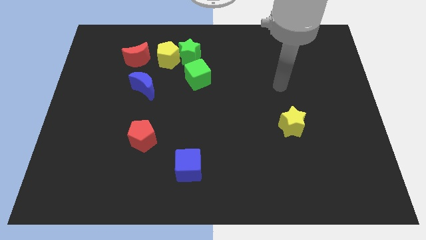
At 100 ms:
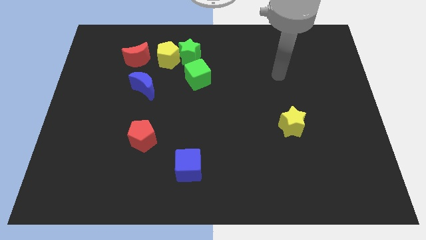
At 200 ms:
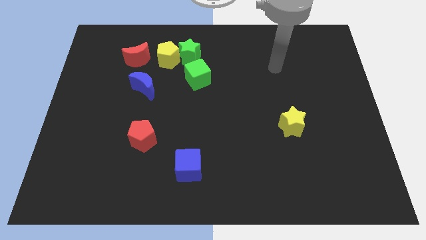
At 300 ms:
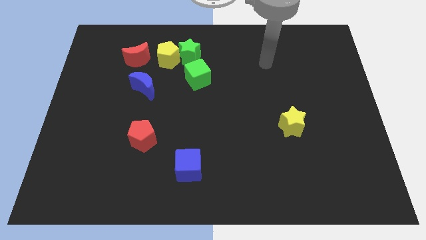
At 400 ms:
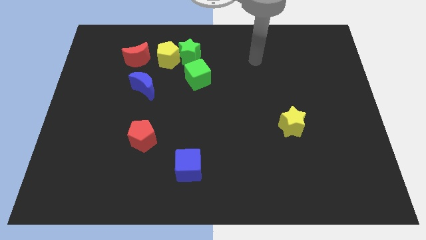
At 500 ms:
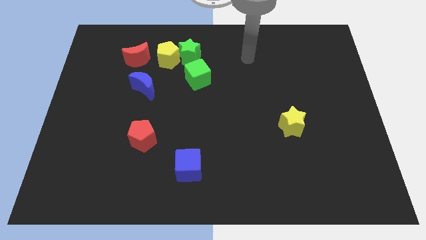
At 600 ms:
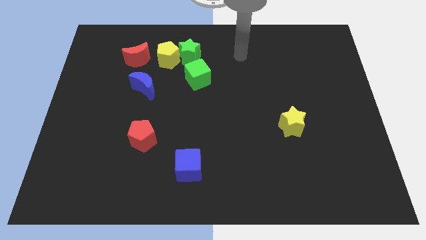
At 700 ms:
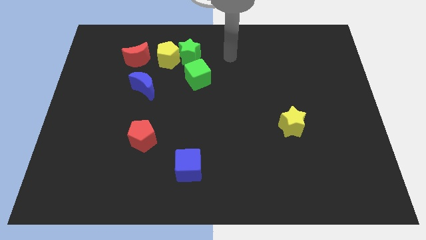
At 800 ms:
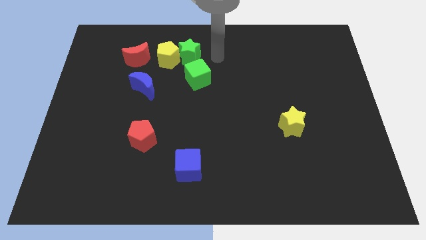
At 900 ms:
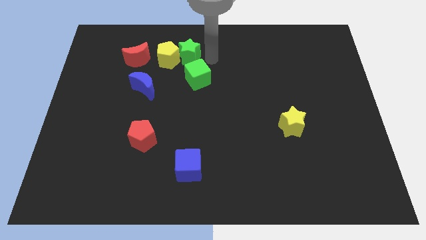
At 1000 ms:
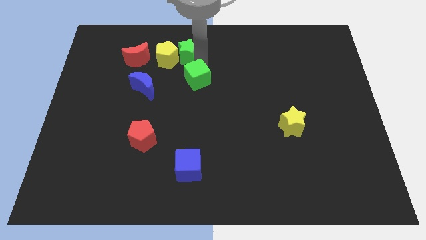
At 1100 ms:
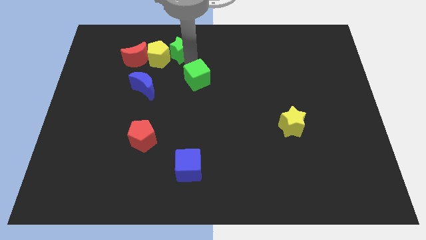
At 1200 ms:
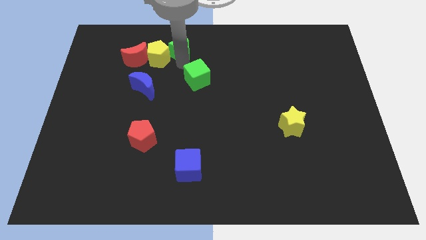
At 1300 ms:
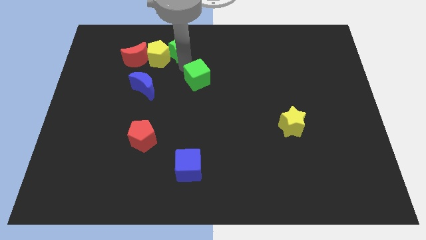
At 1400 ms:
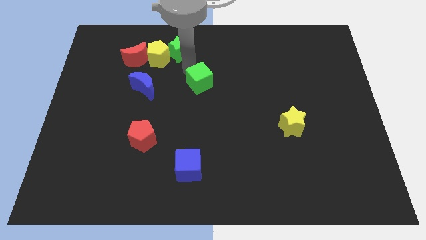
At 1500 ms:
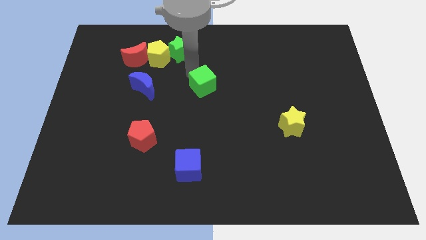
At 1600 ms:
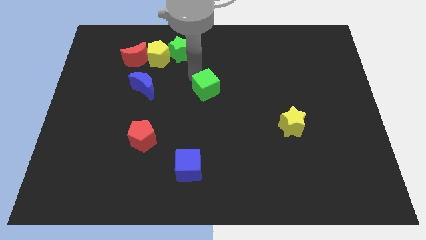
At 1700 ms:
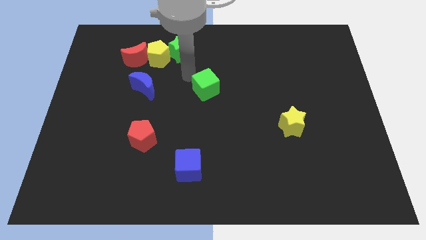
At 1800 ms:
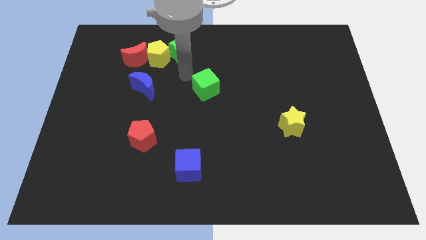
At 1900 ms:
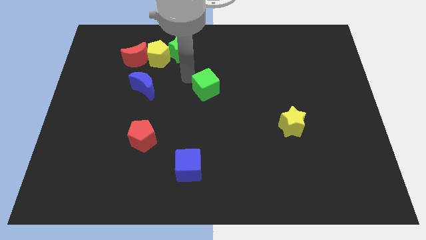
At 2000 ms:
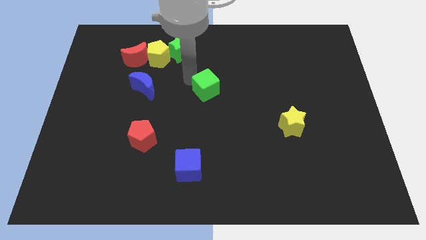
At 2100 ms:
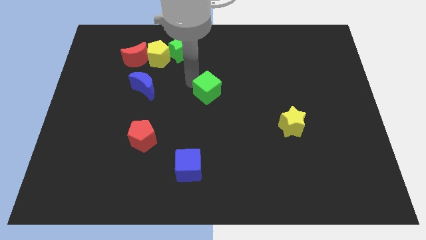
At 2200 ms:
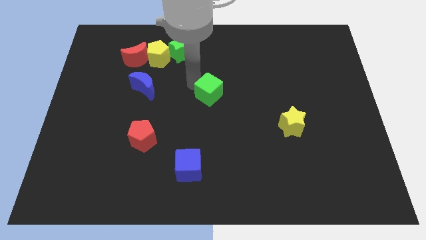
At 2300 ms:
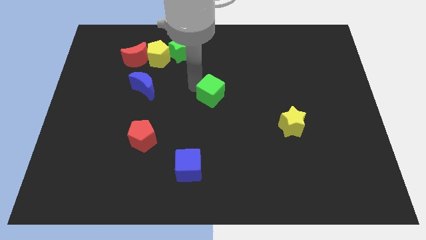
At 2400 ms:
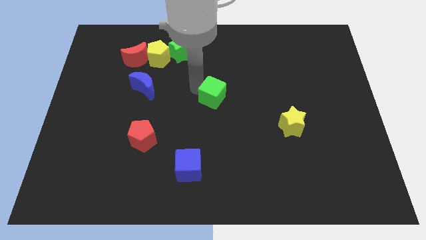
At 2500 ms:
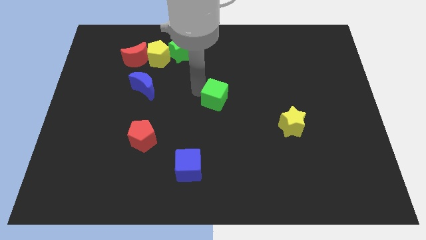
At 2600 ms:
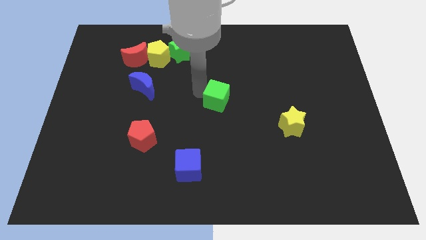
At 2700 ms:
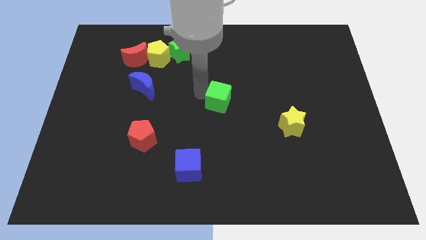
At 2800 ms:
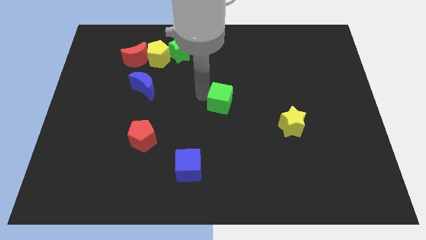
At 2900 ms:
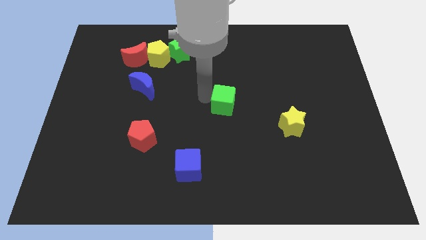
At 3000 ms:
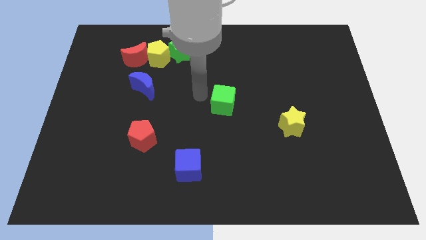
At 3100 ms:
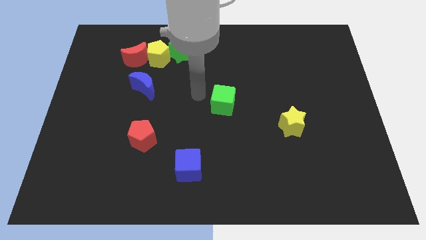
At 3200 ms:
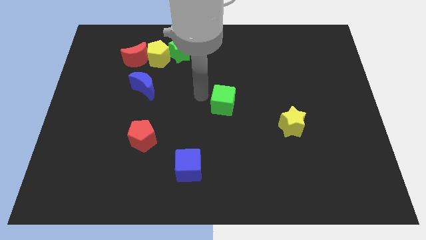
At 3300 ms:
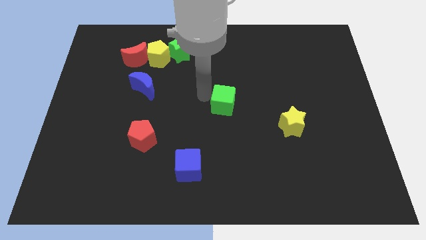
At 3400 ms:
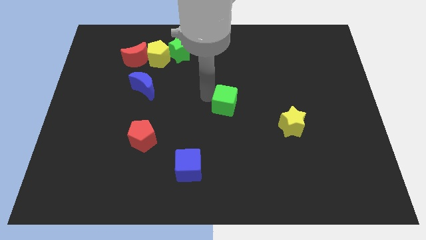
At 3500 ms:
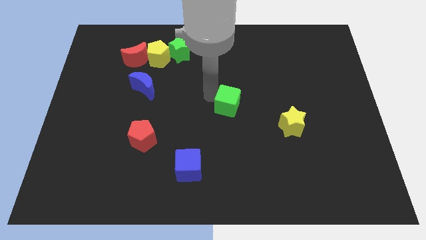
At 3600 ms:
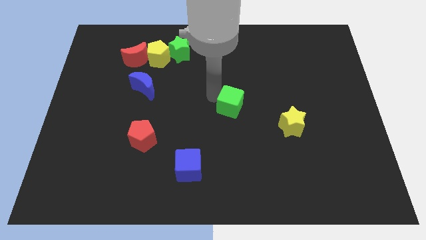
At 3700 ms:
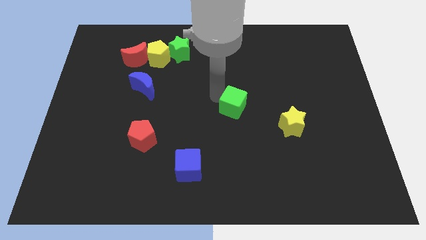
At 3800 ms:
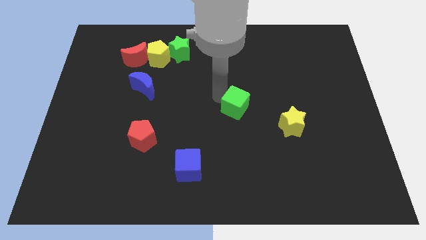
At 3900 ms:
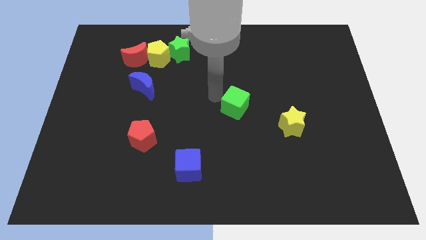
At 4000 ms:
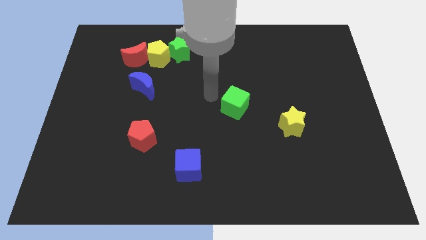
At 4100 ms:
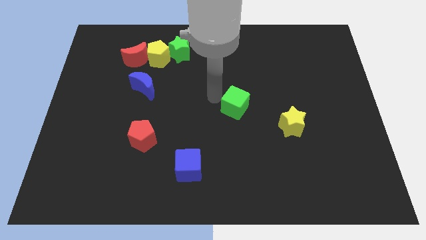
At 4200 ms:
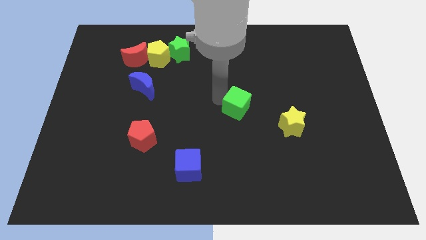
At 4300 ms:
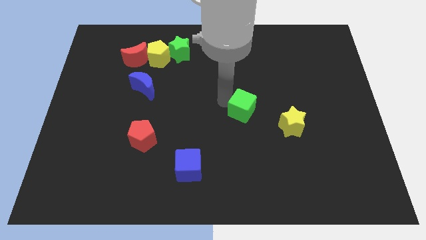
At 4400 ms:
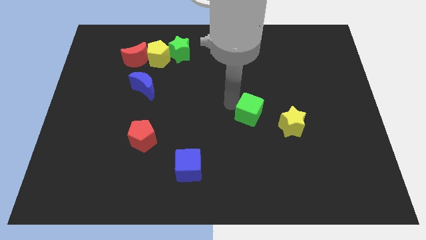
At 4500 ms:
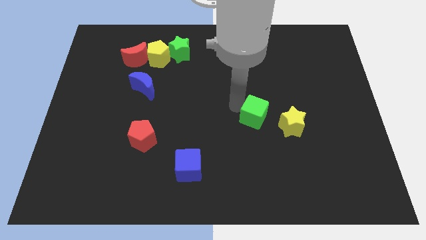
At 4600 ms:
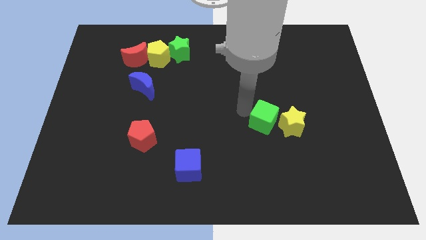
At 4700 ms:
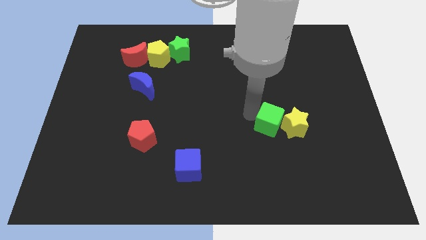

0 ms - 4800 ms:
push the green cube next to the yellow star

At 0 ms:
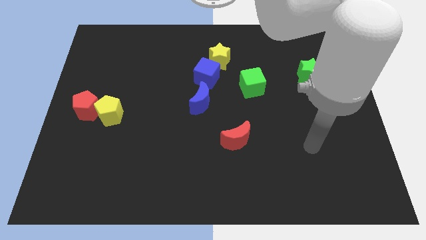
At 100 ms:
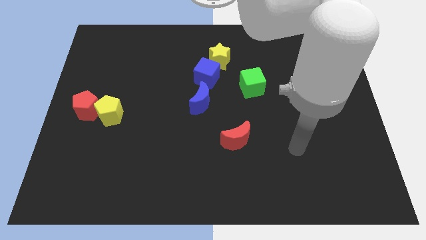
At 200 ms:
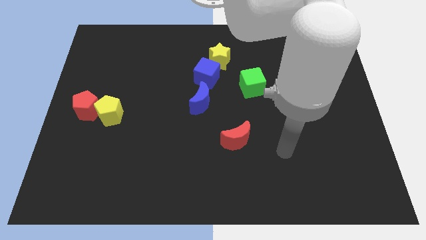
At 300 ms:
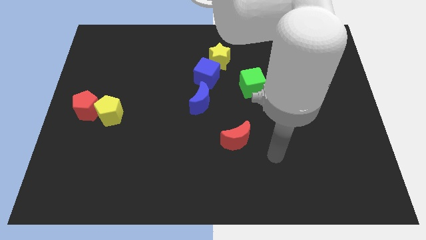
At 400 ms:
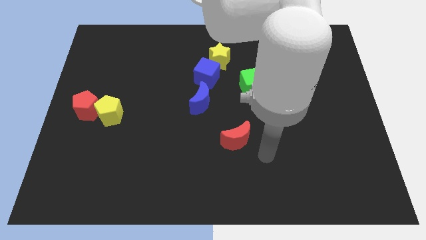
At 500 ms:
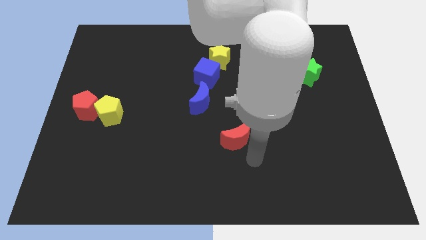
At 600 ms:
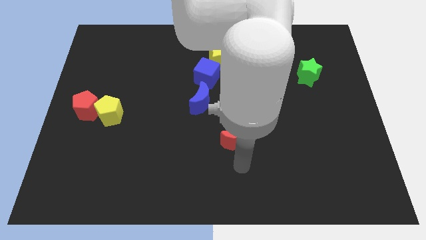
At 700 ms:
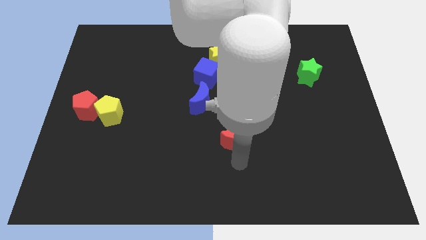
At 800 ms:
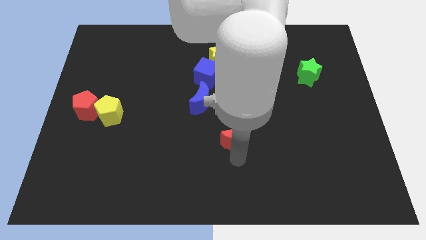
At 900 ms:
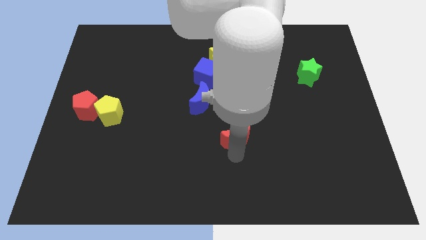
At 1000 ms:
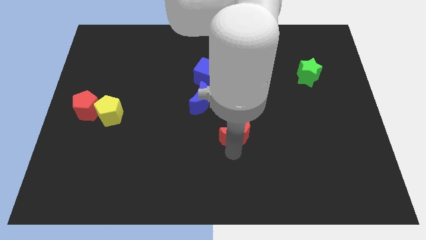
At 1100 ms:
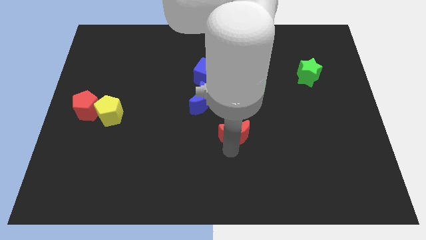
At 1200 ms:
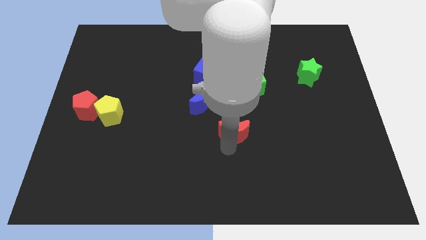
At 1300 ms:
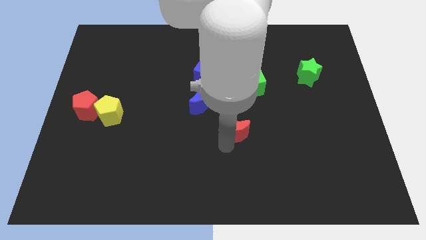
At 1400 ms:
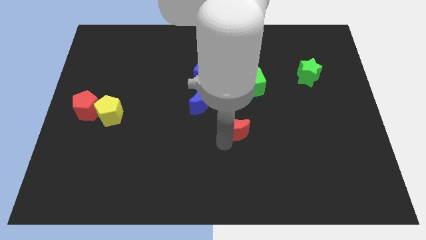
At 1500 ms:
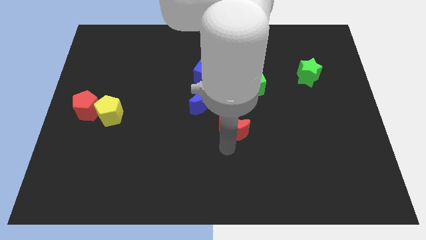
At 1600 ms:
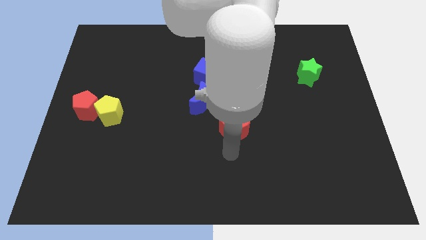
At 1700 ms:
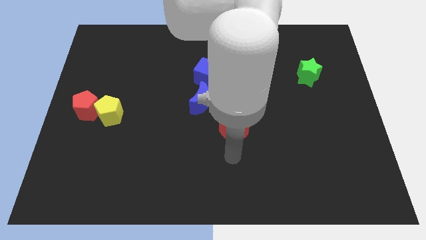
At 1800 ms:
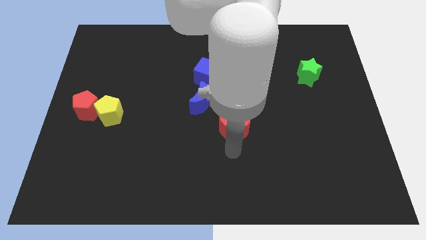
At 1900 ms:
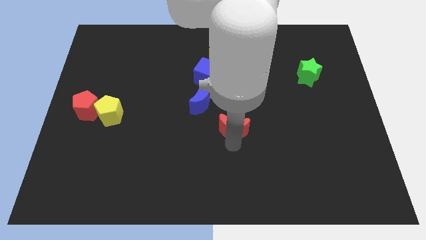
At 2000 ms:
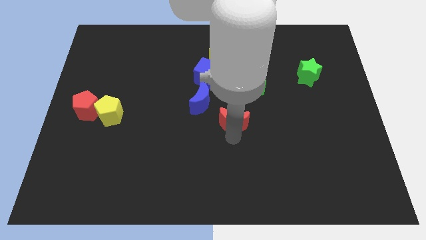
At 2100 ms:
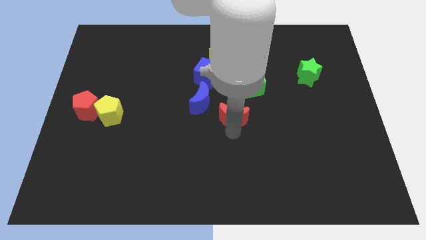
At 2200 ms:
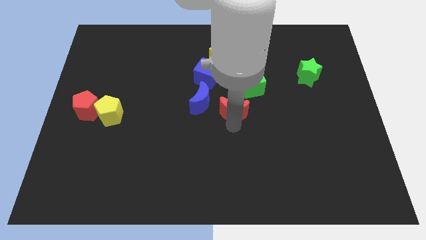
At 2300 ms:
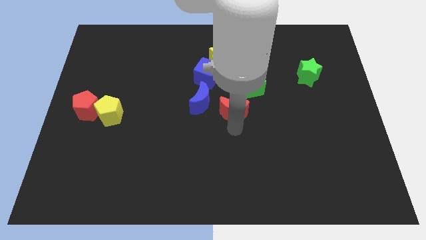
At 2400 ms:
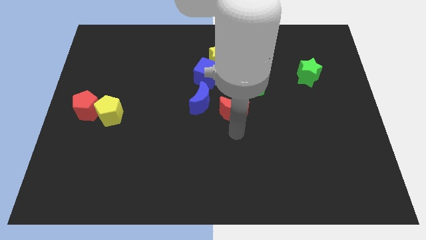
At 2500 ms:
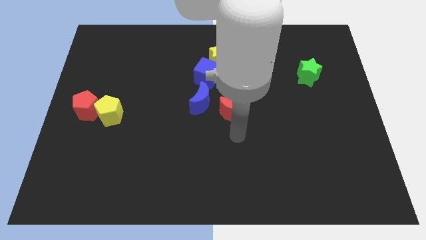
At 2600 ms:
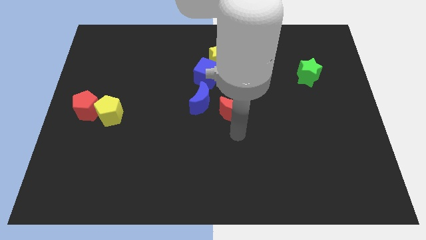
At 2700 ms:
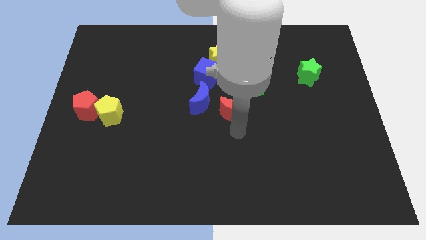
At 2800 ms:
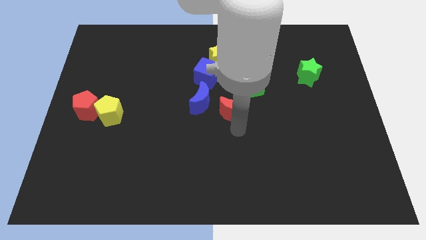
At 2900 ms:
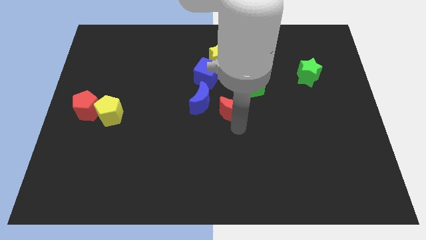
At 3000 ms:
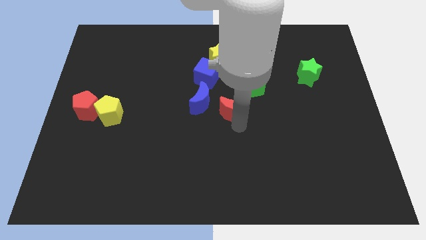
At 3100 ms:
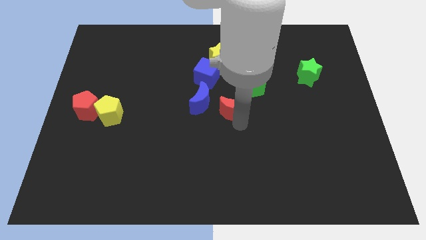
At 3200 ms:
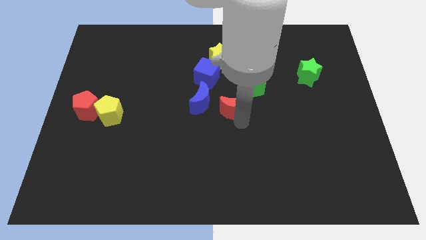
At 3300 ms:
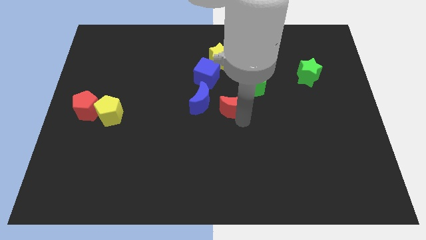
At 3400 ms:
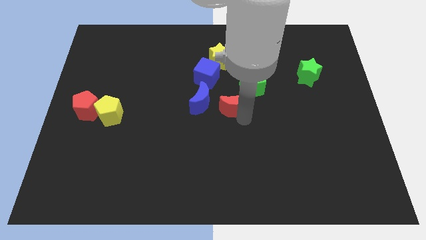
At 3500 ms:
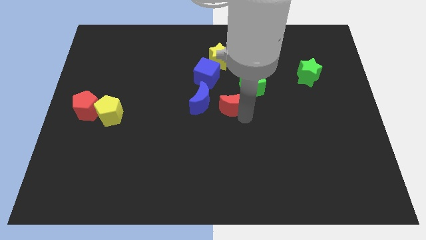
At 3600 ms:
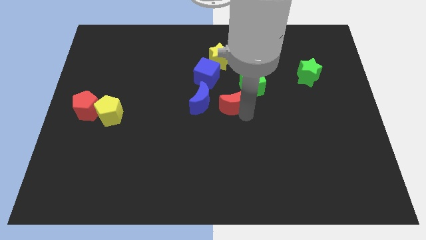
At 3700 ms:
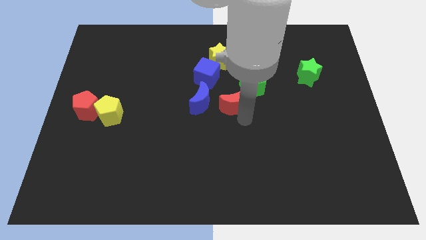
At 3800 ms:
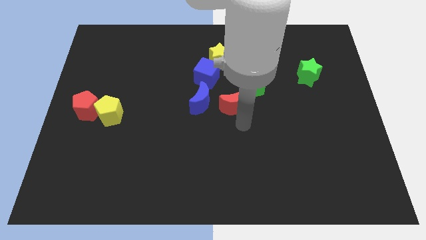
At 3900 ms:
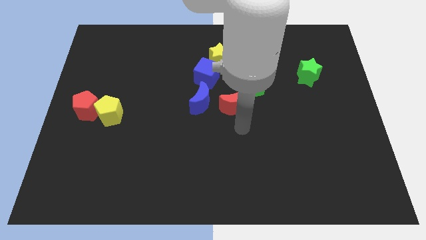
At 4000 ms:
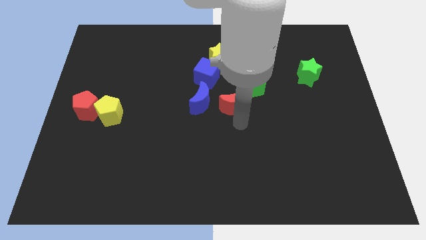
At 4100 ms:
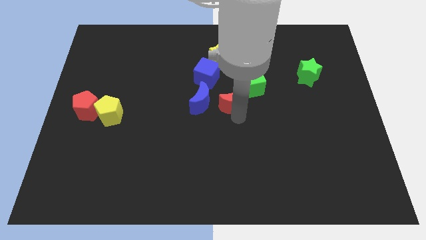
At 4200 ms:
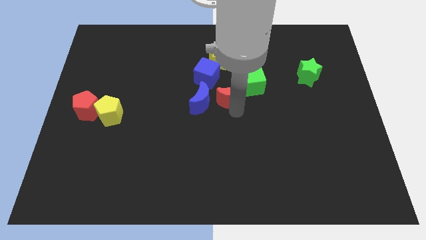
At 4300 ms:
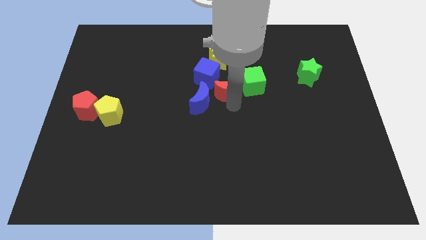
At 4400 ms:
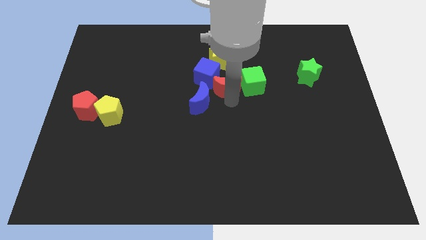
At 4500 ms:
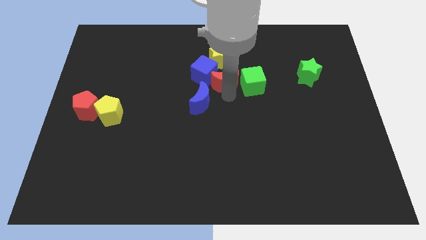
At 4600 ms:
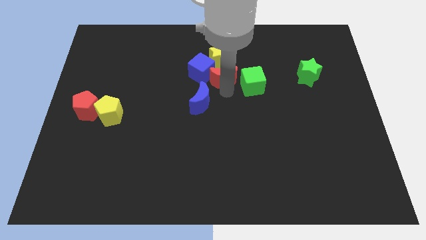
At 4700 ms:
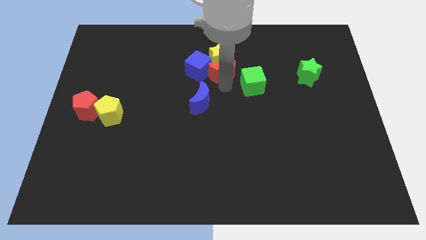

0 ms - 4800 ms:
slide the red moon next to the yellow star
